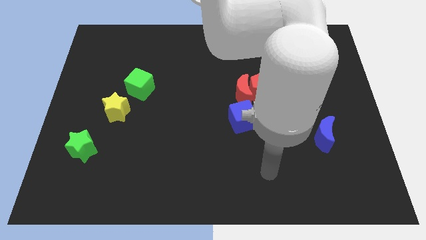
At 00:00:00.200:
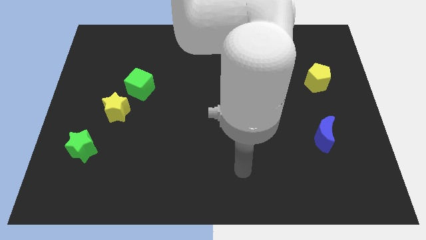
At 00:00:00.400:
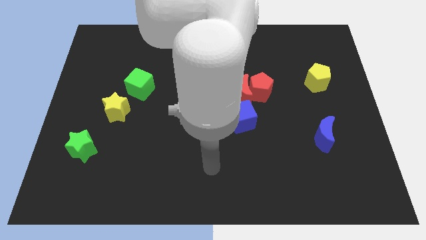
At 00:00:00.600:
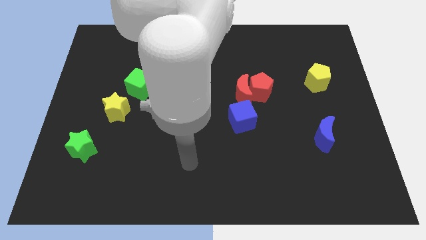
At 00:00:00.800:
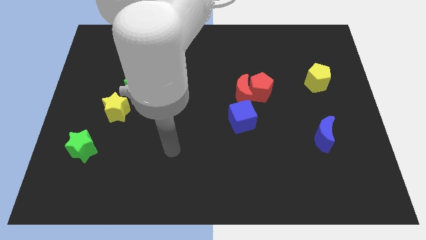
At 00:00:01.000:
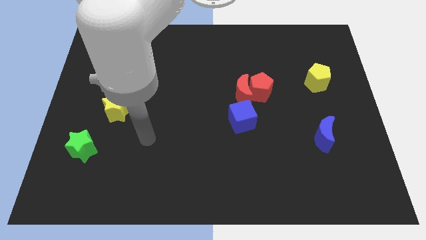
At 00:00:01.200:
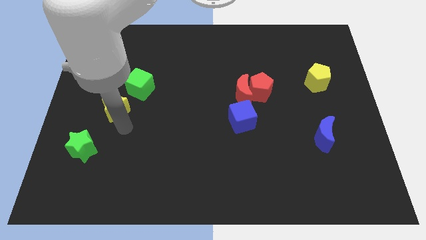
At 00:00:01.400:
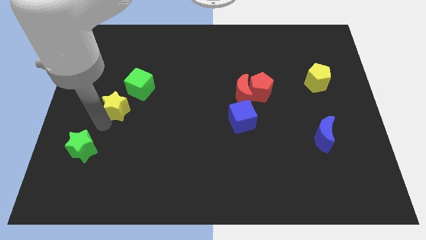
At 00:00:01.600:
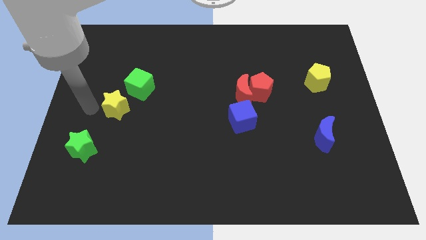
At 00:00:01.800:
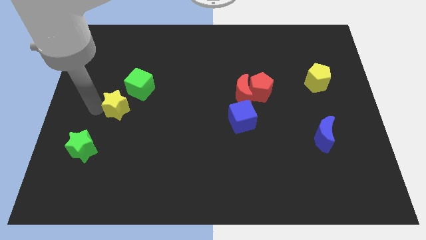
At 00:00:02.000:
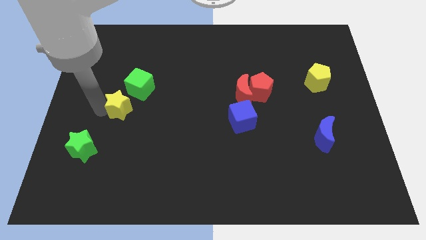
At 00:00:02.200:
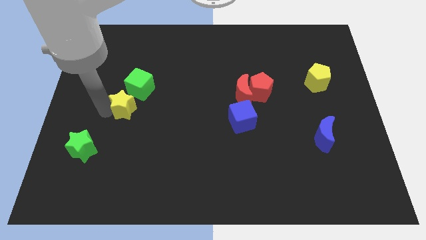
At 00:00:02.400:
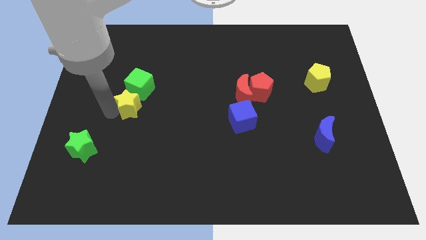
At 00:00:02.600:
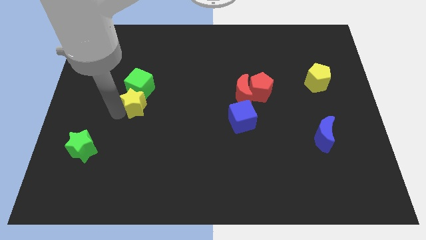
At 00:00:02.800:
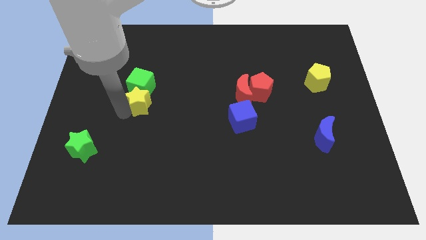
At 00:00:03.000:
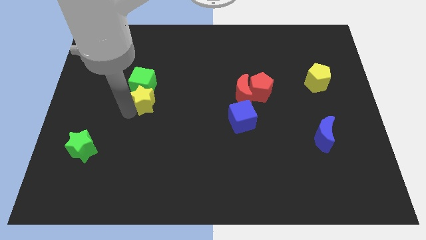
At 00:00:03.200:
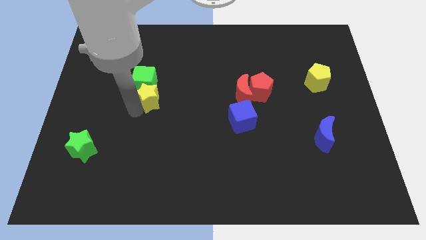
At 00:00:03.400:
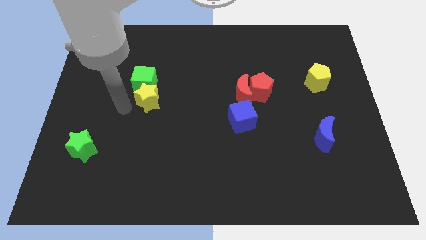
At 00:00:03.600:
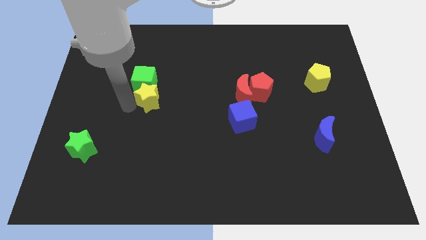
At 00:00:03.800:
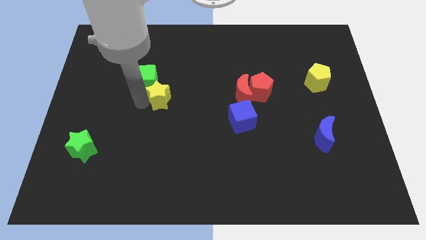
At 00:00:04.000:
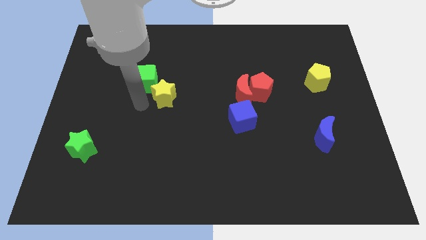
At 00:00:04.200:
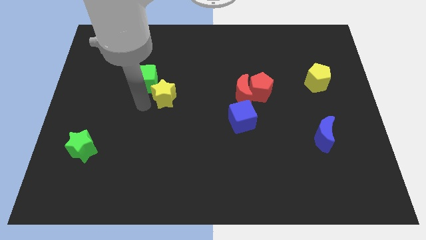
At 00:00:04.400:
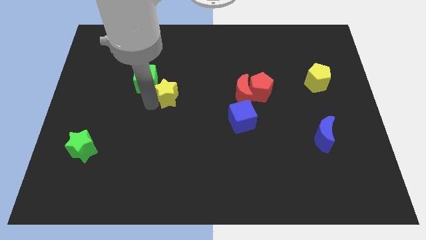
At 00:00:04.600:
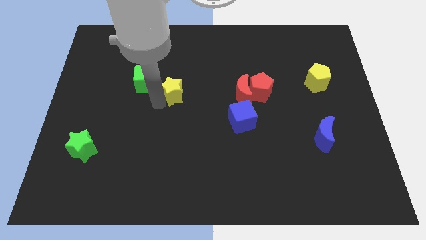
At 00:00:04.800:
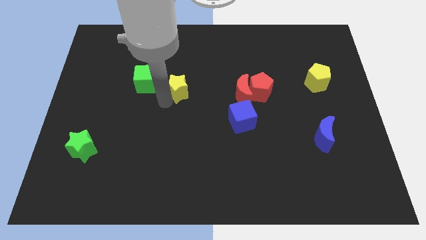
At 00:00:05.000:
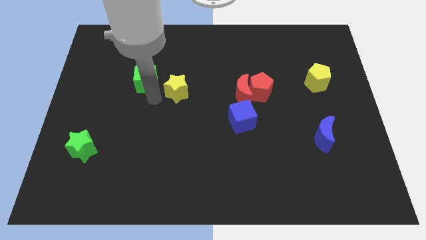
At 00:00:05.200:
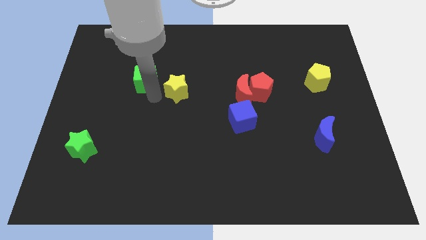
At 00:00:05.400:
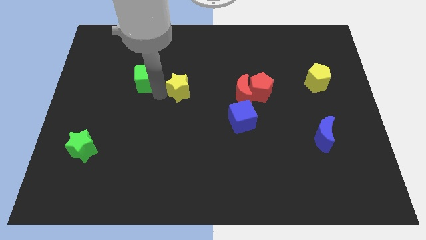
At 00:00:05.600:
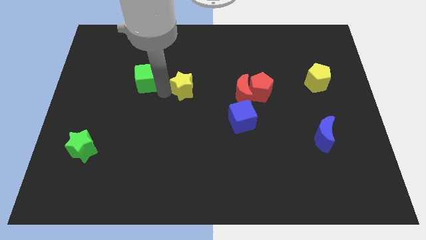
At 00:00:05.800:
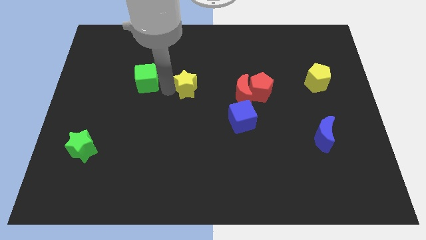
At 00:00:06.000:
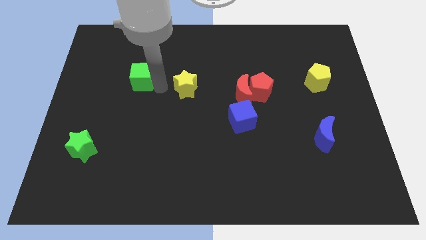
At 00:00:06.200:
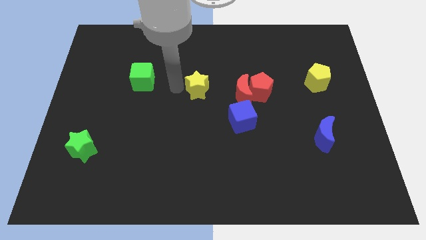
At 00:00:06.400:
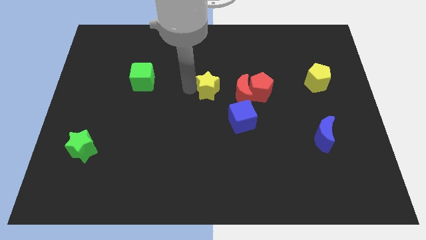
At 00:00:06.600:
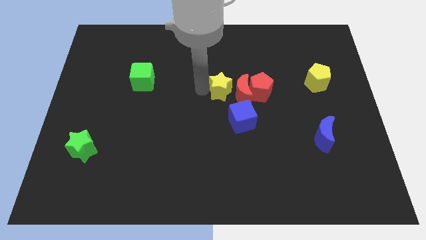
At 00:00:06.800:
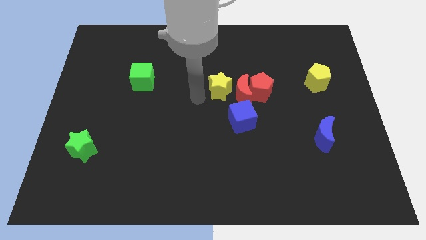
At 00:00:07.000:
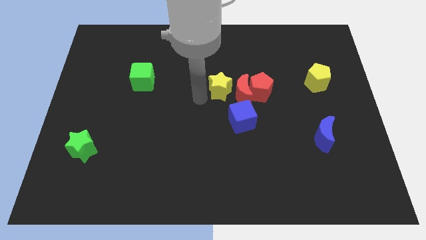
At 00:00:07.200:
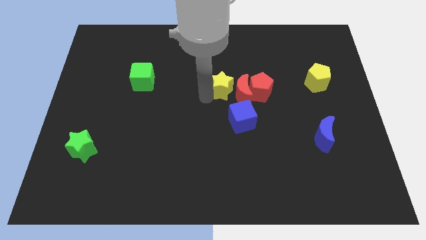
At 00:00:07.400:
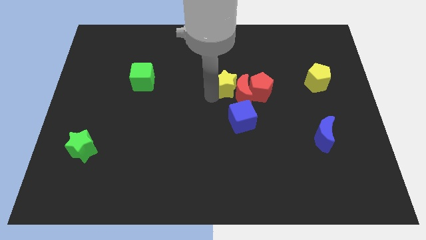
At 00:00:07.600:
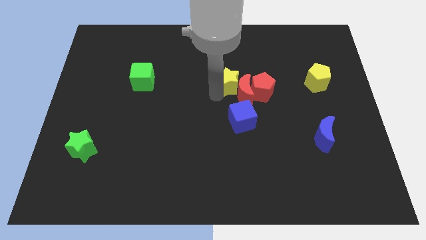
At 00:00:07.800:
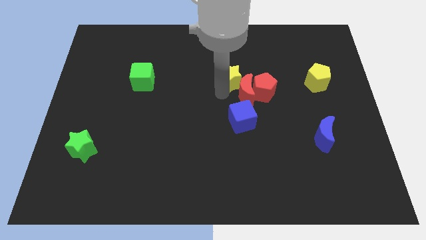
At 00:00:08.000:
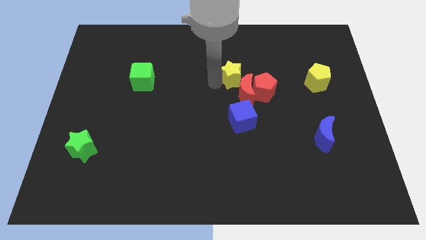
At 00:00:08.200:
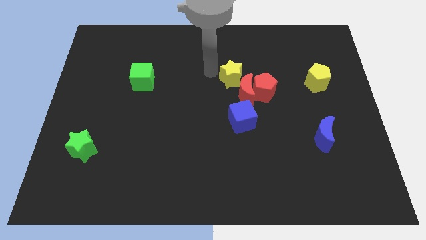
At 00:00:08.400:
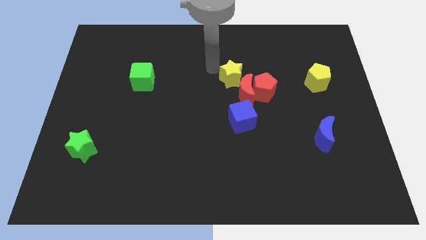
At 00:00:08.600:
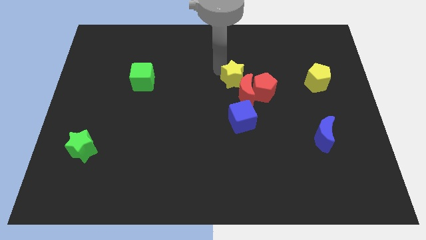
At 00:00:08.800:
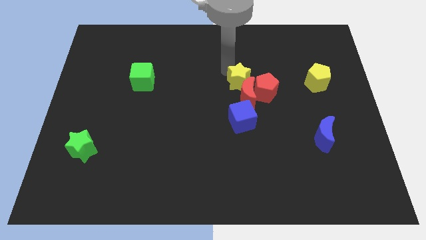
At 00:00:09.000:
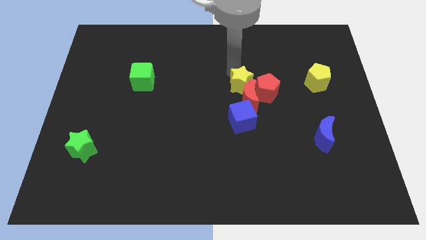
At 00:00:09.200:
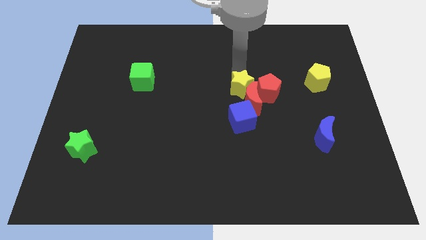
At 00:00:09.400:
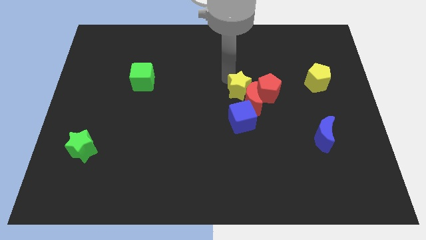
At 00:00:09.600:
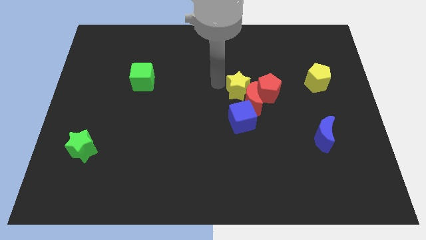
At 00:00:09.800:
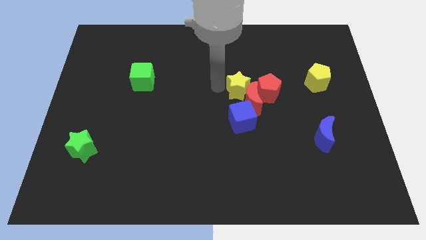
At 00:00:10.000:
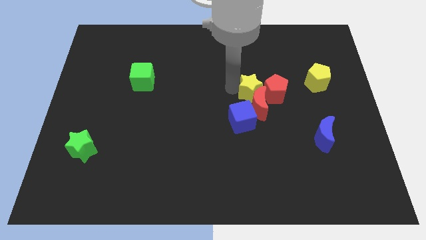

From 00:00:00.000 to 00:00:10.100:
put the yellow star close to the red pentagon

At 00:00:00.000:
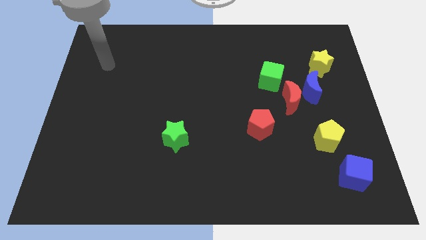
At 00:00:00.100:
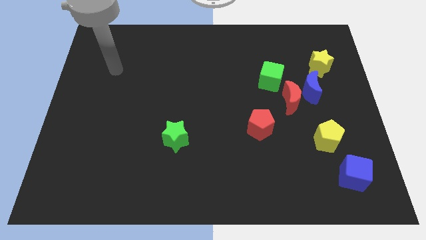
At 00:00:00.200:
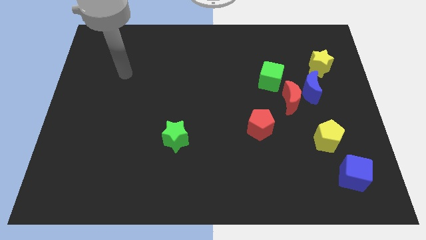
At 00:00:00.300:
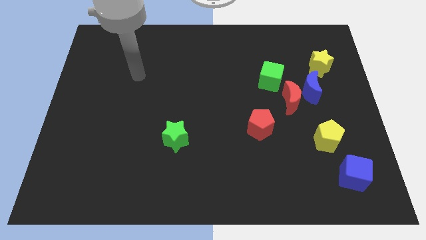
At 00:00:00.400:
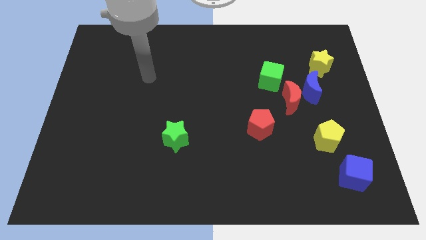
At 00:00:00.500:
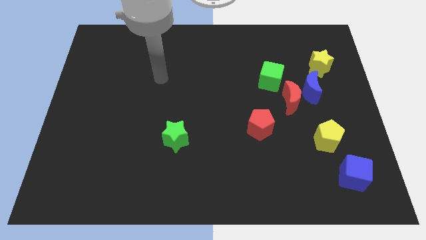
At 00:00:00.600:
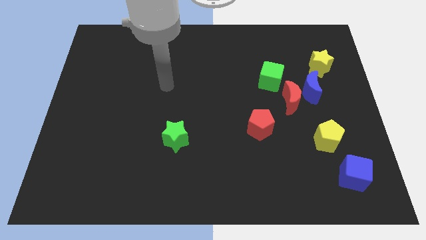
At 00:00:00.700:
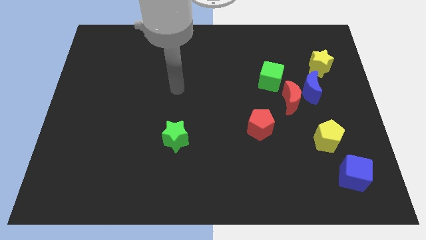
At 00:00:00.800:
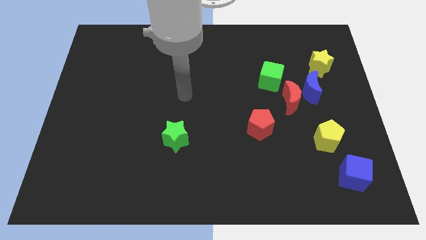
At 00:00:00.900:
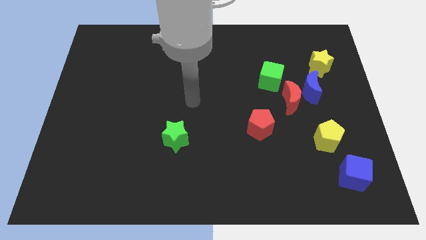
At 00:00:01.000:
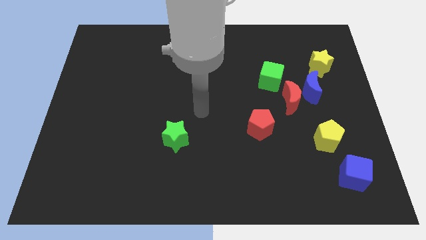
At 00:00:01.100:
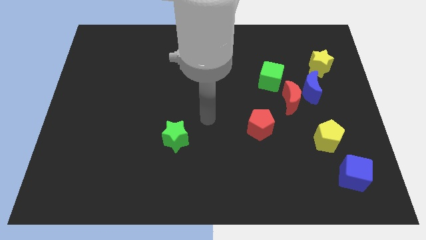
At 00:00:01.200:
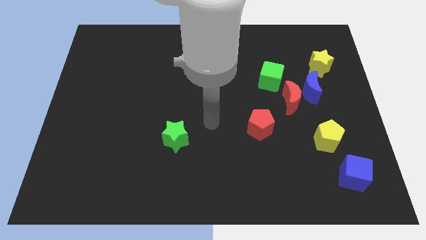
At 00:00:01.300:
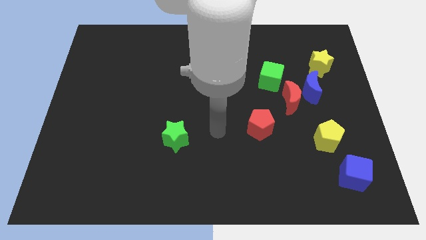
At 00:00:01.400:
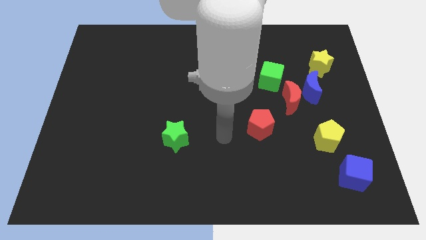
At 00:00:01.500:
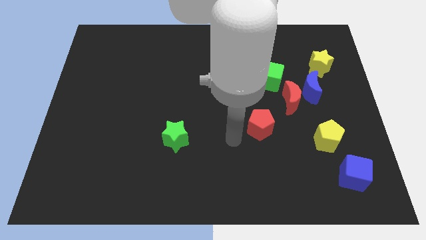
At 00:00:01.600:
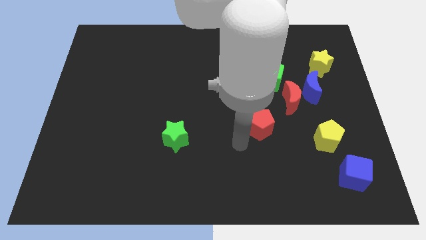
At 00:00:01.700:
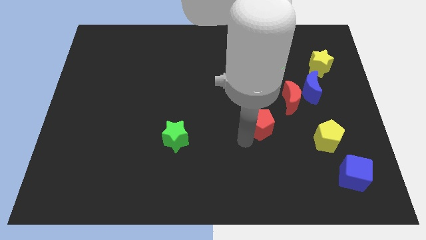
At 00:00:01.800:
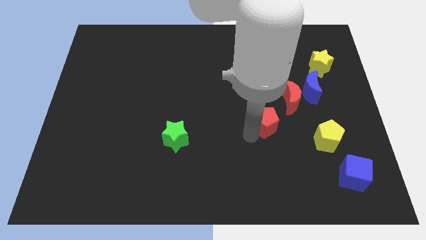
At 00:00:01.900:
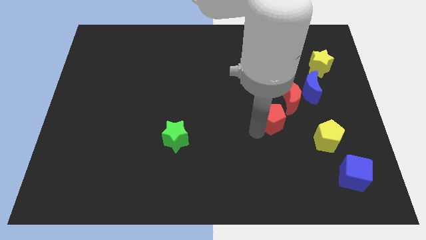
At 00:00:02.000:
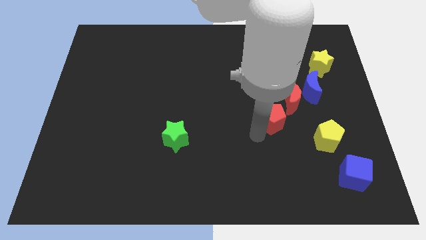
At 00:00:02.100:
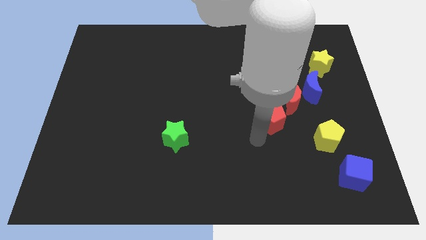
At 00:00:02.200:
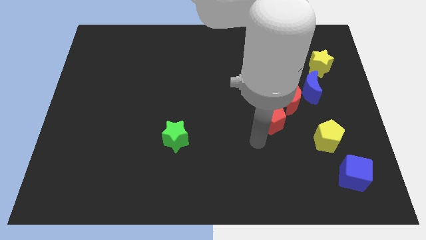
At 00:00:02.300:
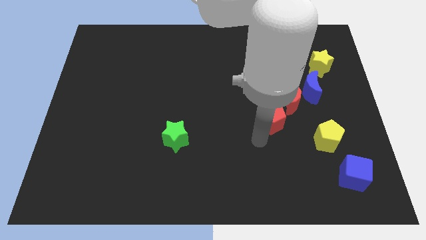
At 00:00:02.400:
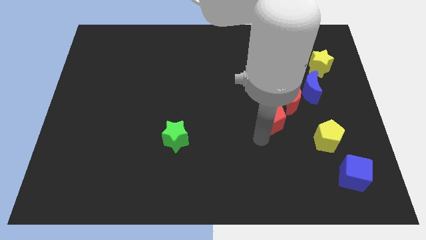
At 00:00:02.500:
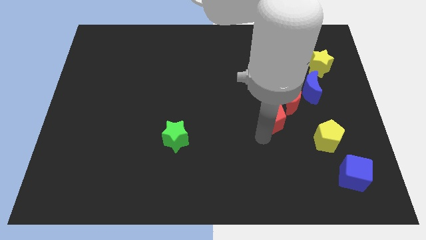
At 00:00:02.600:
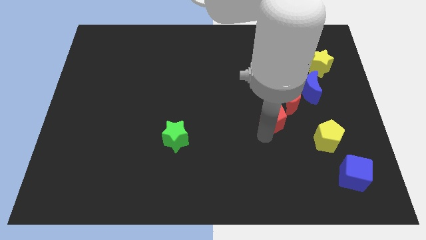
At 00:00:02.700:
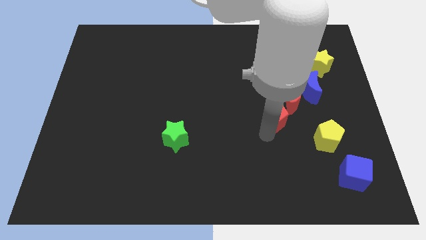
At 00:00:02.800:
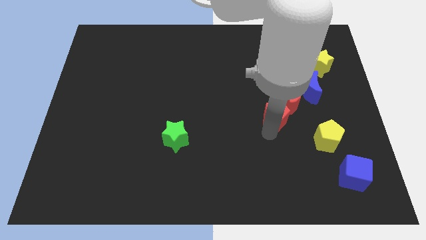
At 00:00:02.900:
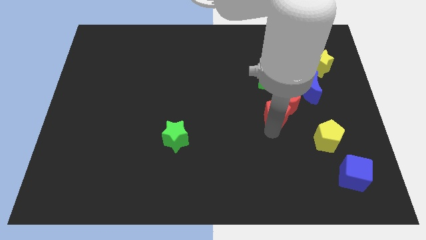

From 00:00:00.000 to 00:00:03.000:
put the red pentagon to the red moon
